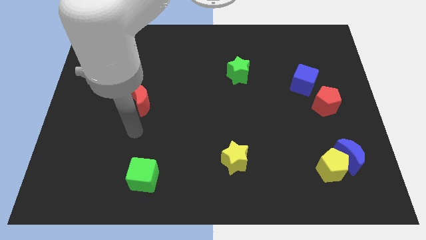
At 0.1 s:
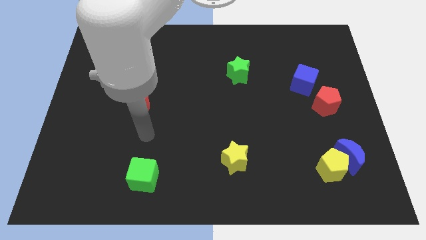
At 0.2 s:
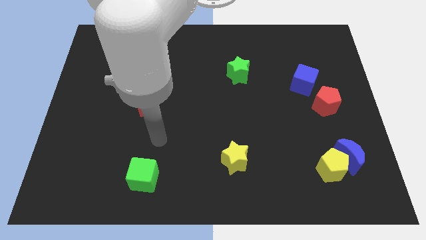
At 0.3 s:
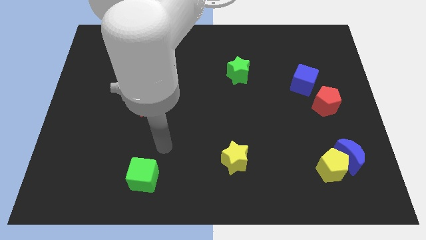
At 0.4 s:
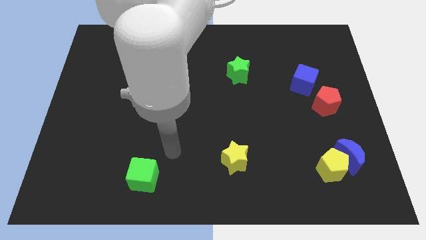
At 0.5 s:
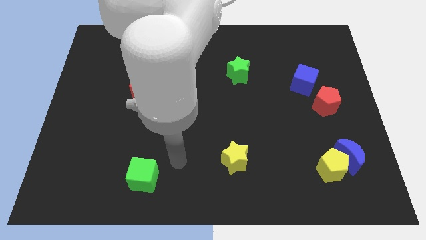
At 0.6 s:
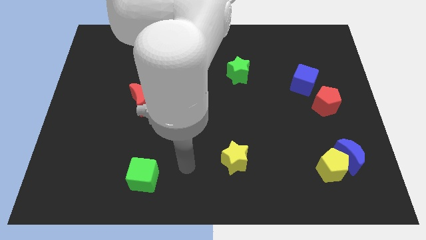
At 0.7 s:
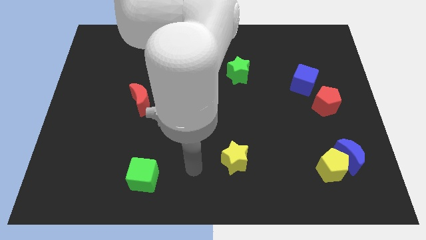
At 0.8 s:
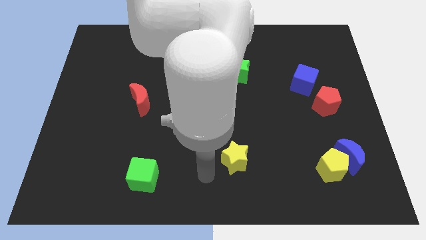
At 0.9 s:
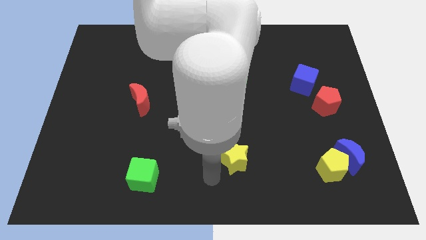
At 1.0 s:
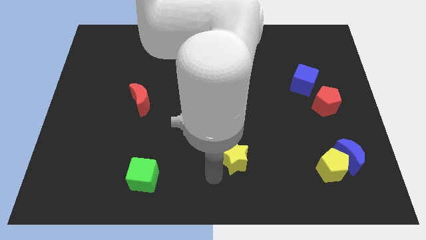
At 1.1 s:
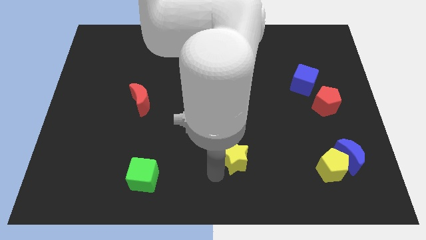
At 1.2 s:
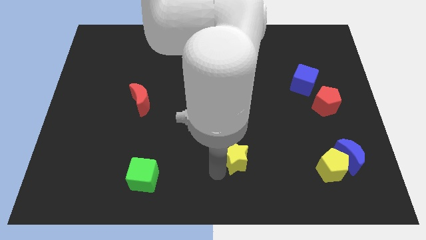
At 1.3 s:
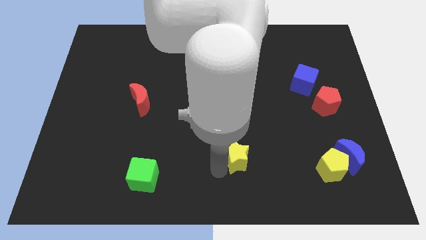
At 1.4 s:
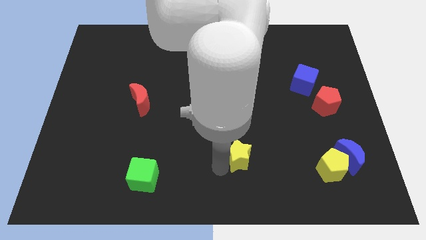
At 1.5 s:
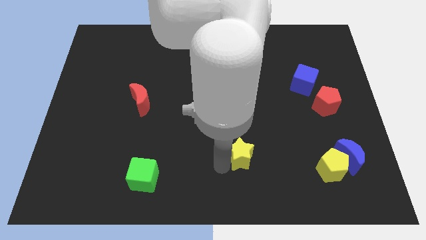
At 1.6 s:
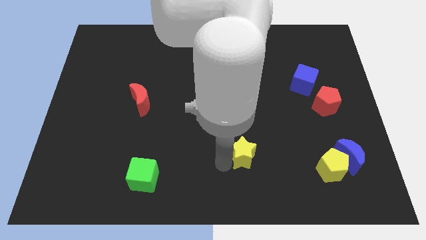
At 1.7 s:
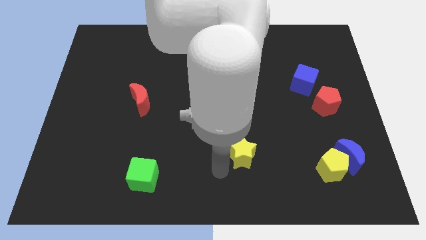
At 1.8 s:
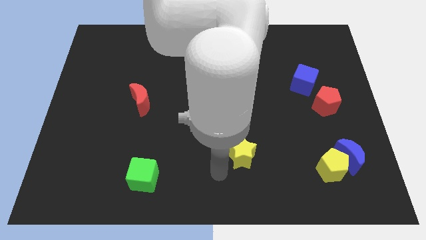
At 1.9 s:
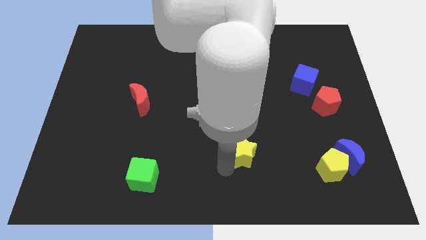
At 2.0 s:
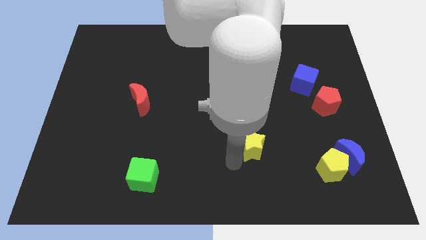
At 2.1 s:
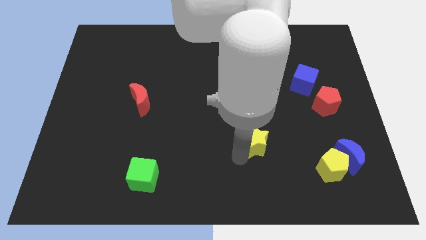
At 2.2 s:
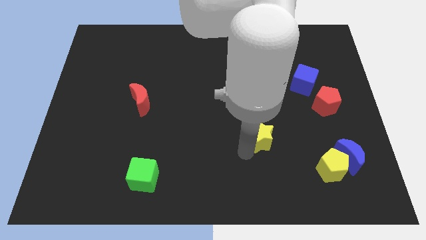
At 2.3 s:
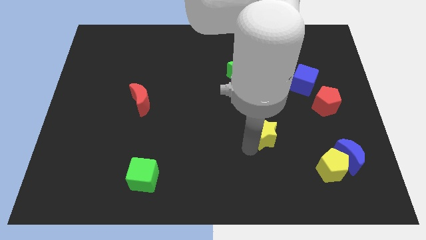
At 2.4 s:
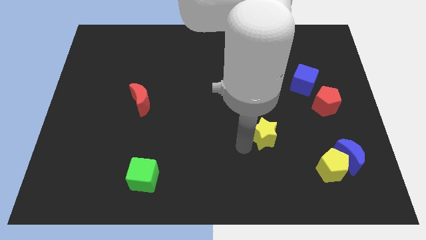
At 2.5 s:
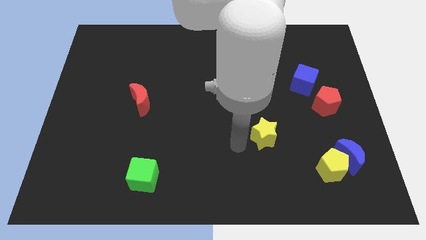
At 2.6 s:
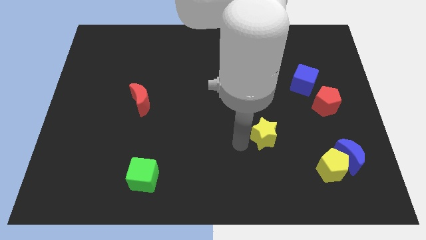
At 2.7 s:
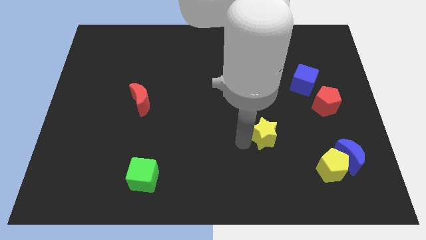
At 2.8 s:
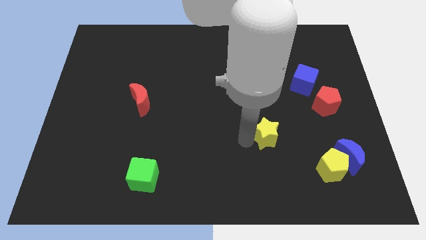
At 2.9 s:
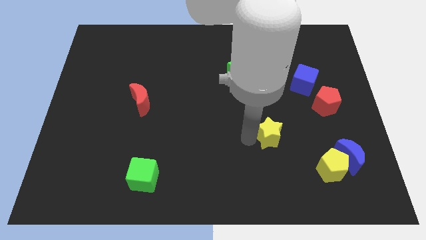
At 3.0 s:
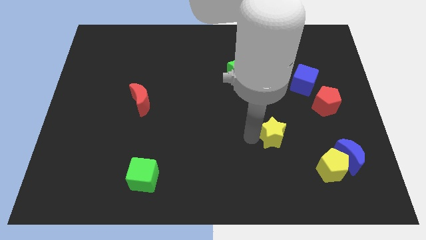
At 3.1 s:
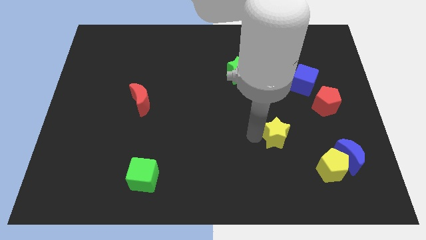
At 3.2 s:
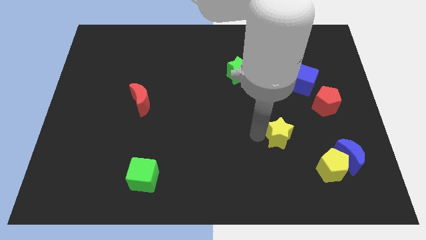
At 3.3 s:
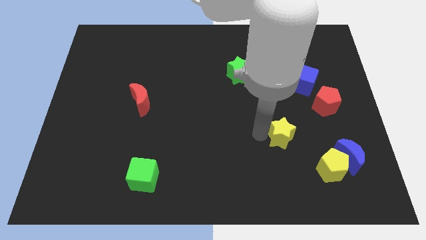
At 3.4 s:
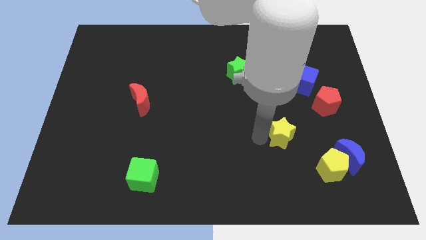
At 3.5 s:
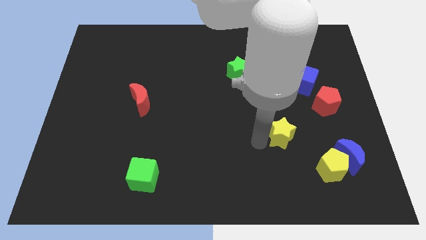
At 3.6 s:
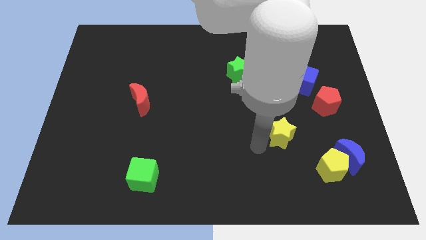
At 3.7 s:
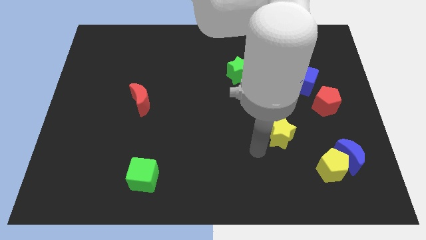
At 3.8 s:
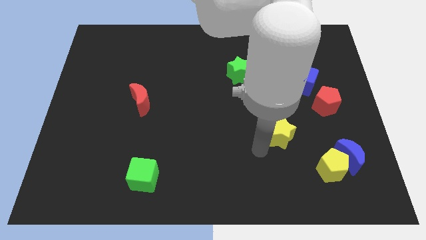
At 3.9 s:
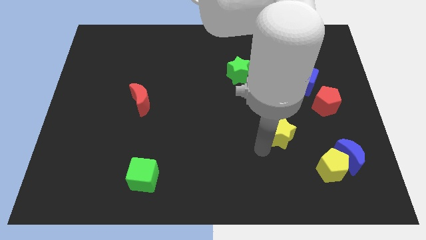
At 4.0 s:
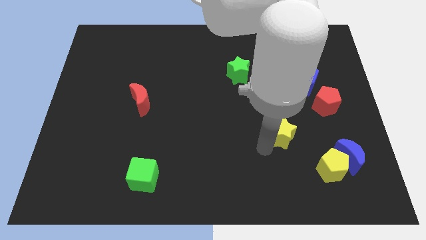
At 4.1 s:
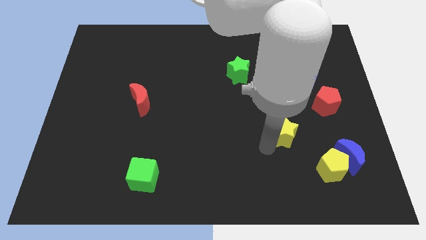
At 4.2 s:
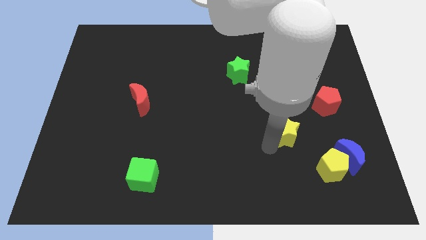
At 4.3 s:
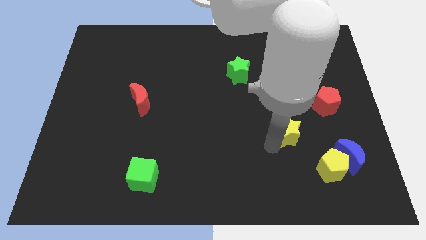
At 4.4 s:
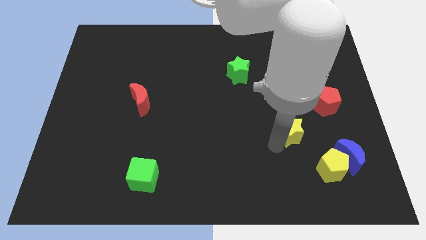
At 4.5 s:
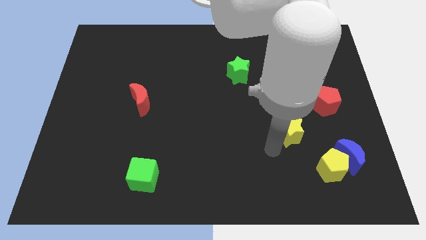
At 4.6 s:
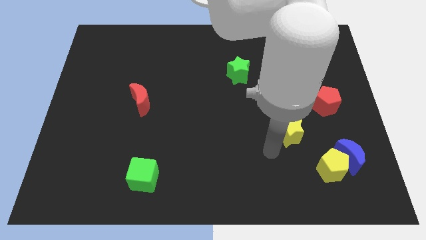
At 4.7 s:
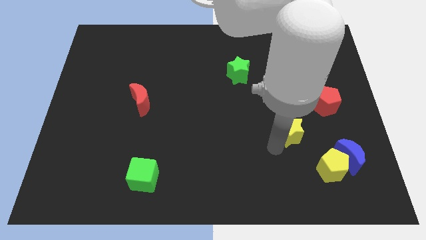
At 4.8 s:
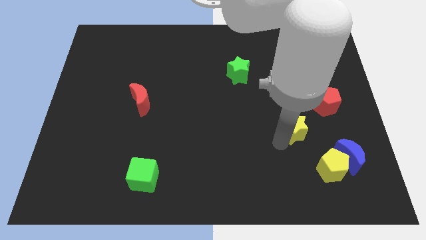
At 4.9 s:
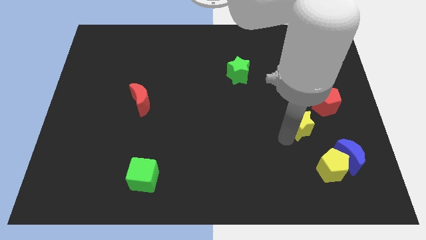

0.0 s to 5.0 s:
put the yellow star below the blue cube

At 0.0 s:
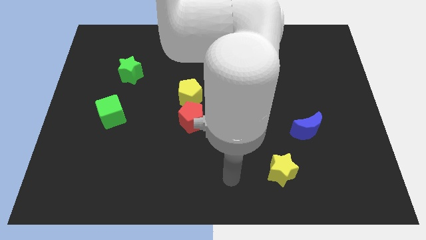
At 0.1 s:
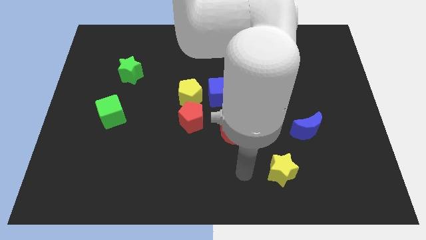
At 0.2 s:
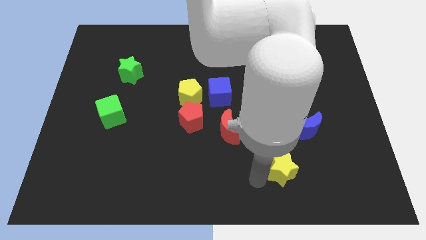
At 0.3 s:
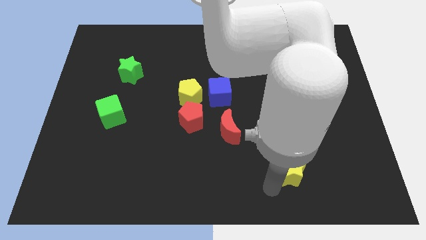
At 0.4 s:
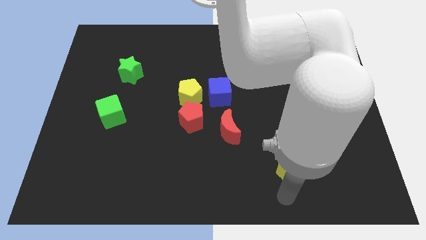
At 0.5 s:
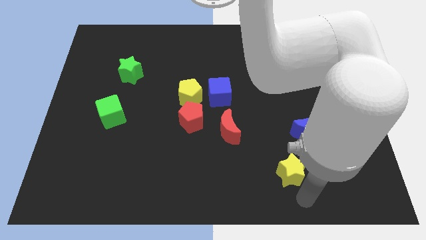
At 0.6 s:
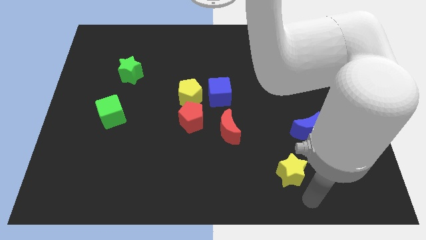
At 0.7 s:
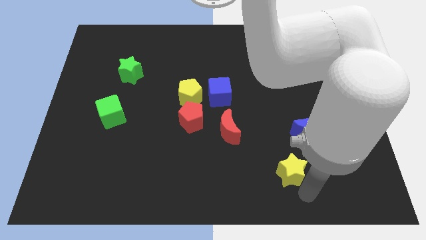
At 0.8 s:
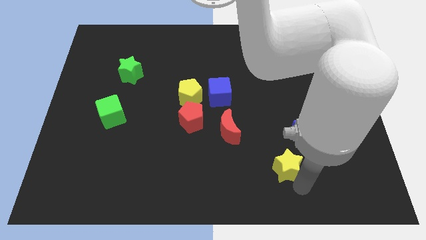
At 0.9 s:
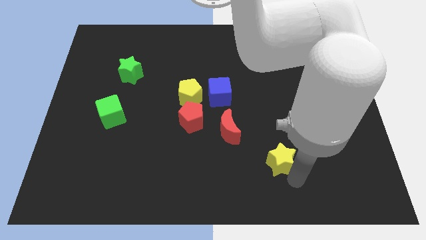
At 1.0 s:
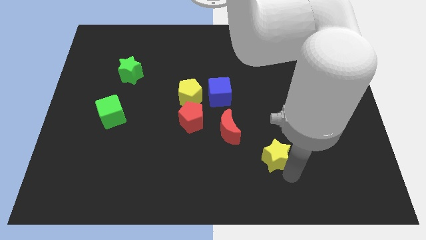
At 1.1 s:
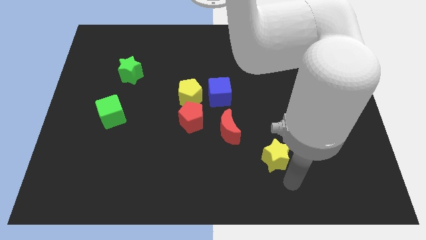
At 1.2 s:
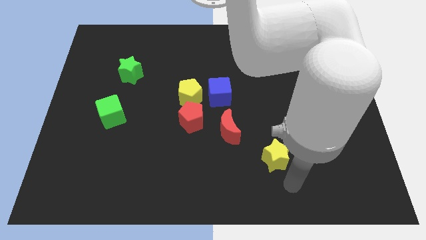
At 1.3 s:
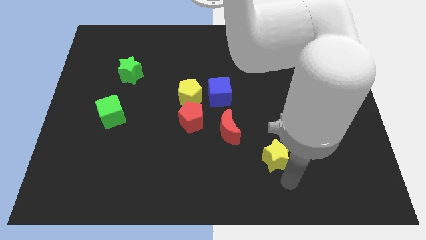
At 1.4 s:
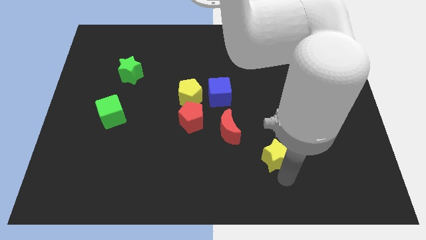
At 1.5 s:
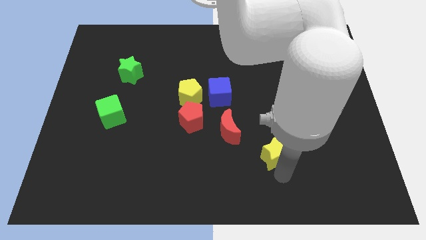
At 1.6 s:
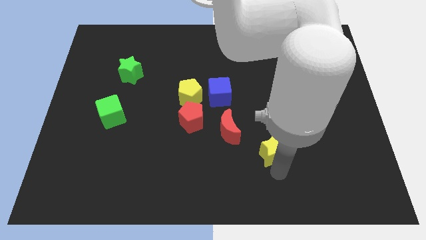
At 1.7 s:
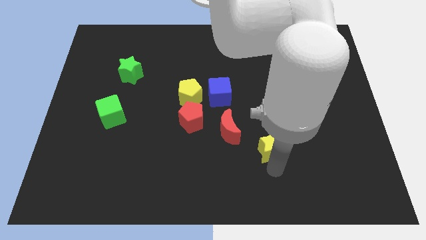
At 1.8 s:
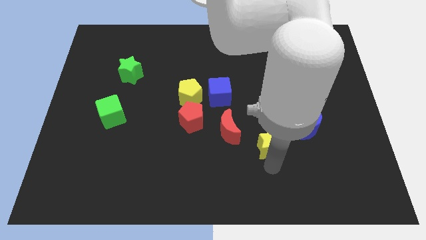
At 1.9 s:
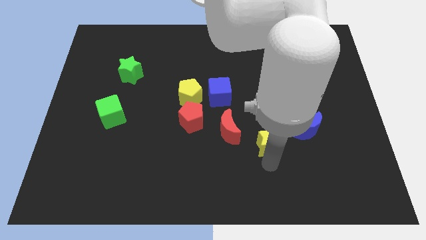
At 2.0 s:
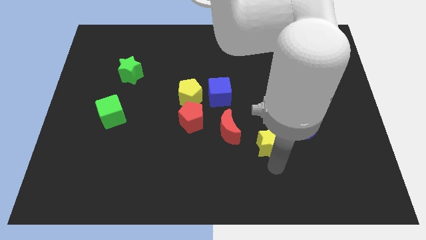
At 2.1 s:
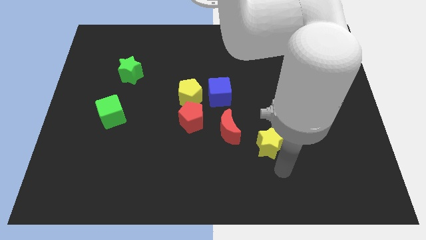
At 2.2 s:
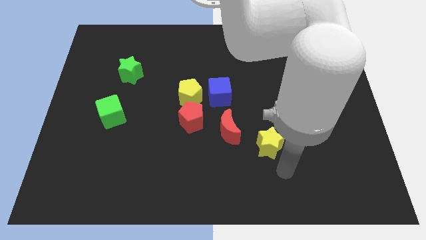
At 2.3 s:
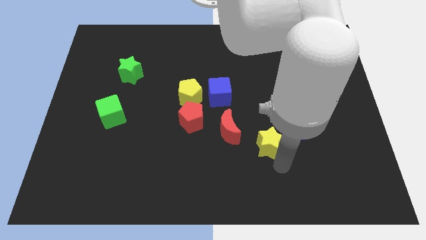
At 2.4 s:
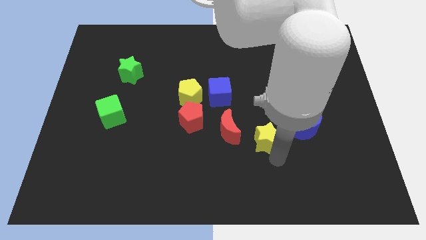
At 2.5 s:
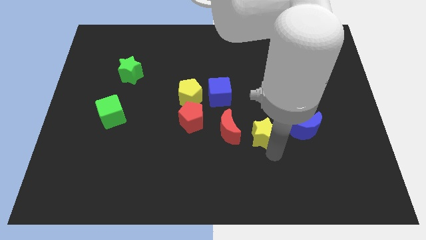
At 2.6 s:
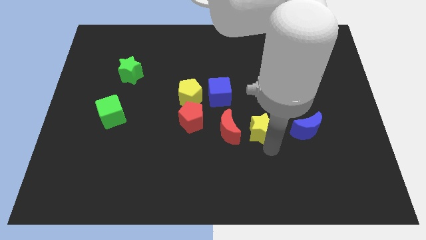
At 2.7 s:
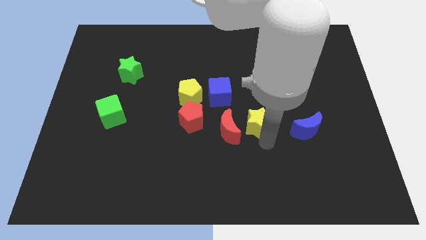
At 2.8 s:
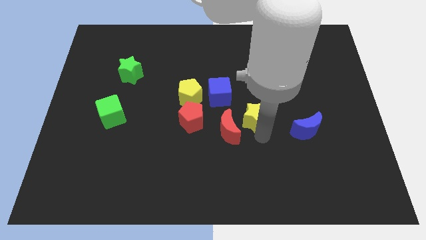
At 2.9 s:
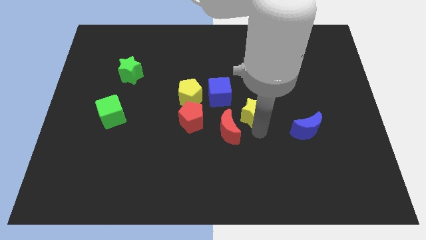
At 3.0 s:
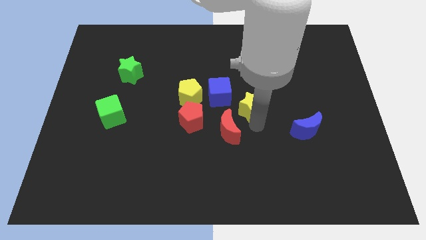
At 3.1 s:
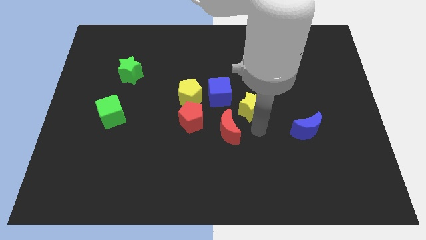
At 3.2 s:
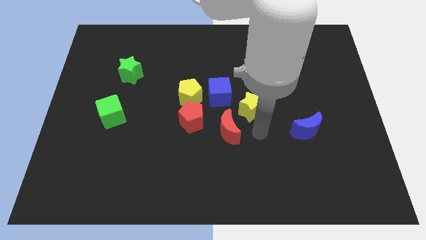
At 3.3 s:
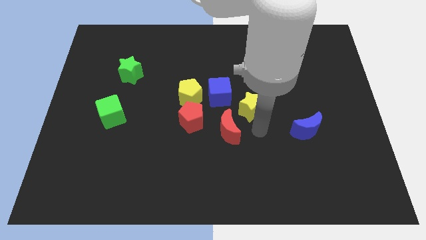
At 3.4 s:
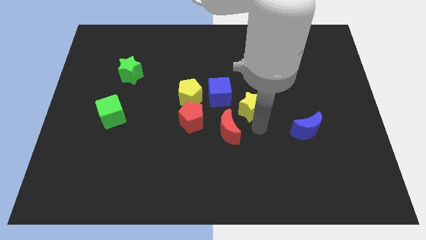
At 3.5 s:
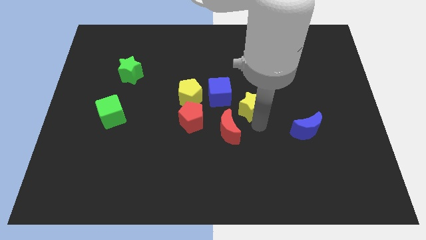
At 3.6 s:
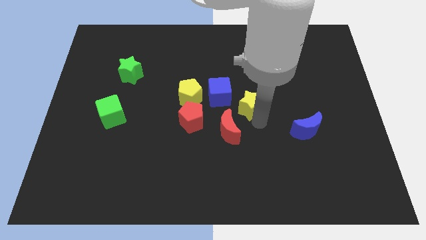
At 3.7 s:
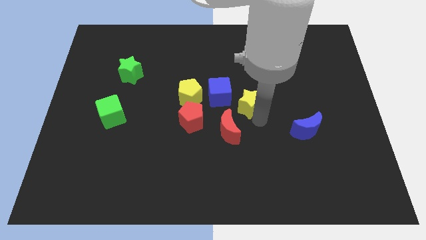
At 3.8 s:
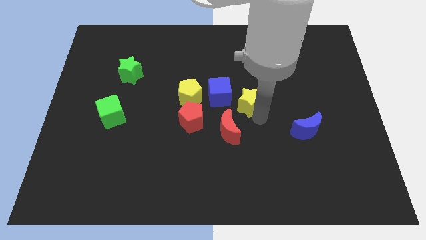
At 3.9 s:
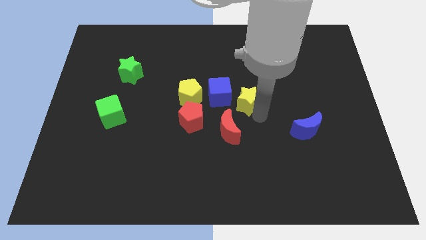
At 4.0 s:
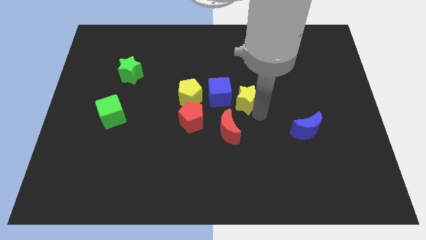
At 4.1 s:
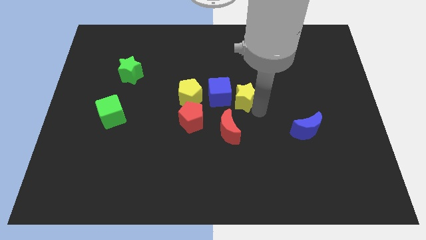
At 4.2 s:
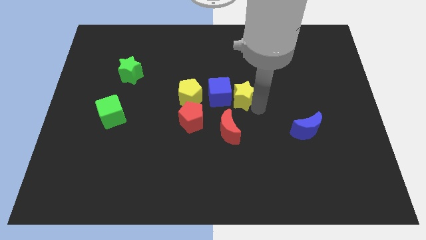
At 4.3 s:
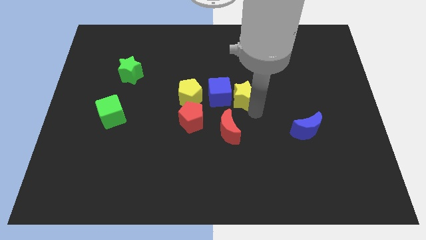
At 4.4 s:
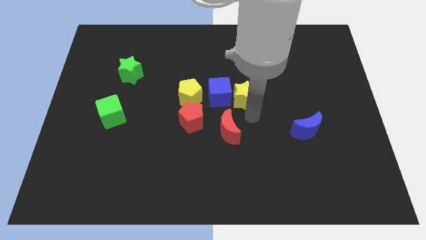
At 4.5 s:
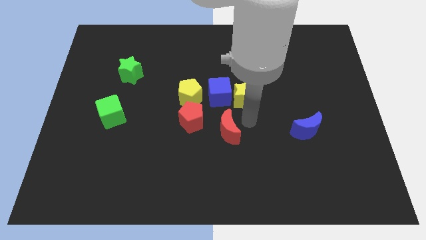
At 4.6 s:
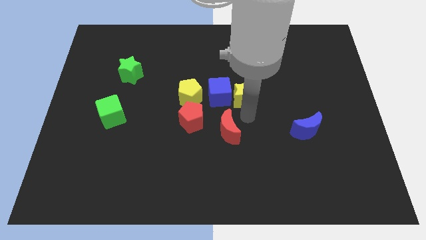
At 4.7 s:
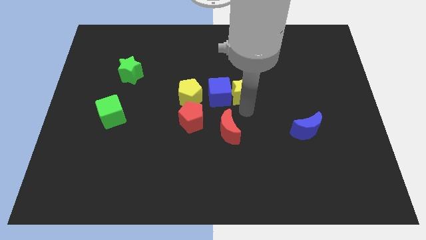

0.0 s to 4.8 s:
put the yellow star diagonally up and to the right of the blue cube
